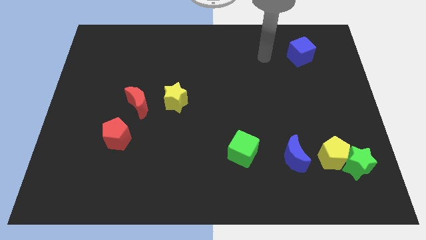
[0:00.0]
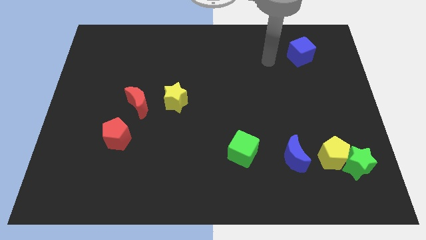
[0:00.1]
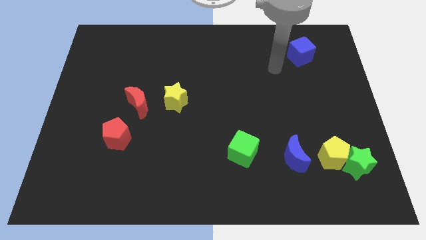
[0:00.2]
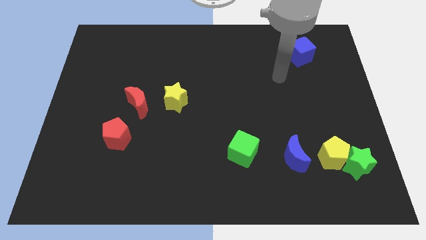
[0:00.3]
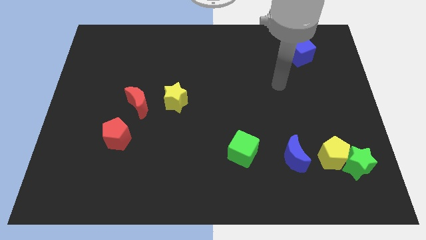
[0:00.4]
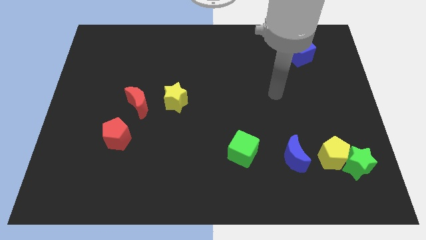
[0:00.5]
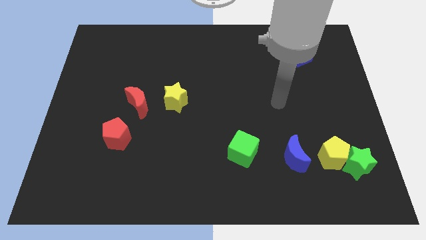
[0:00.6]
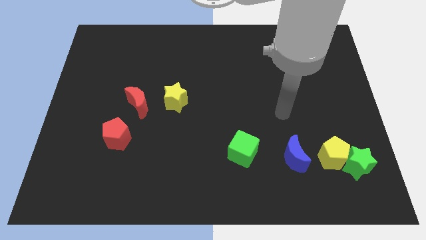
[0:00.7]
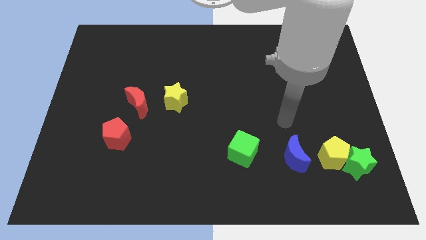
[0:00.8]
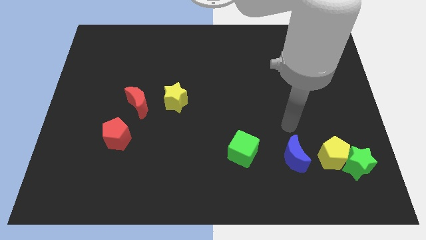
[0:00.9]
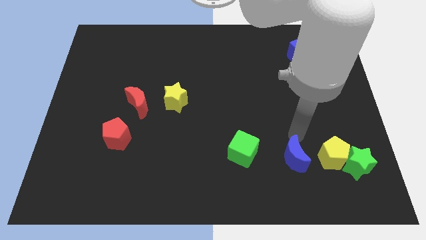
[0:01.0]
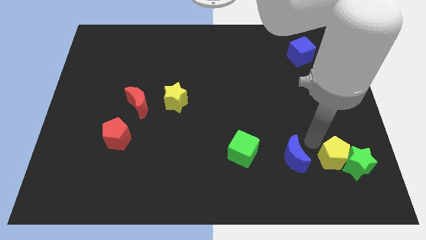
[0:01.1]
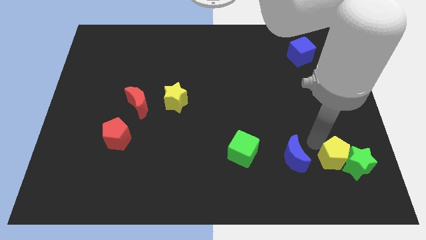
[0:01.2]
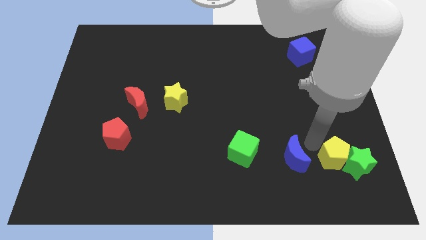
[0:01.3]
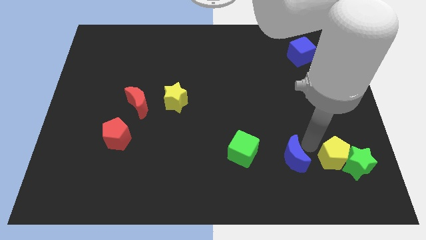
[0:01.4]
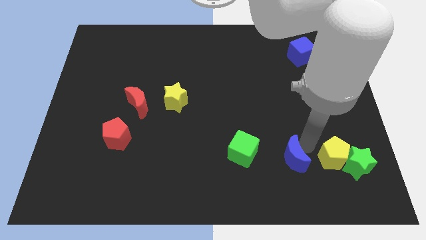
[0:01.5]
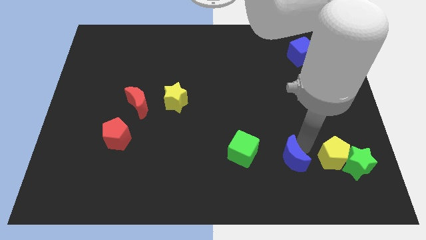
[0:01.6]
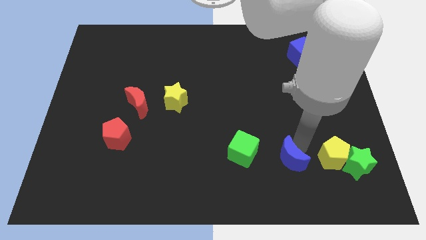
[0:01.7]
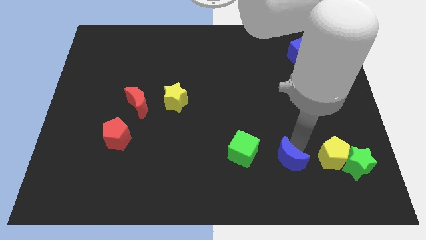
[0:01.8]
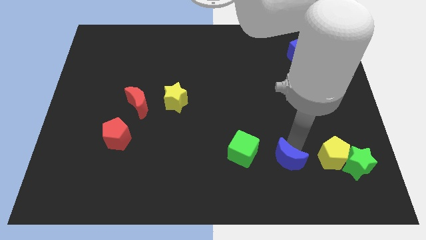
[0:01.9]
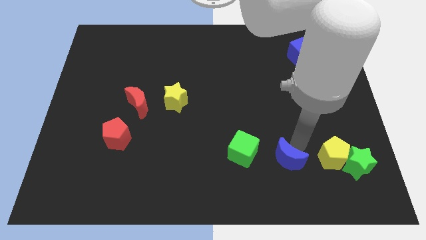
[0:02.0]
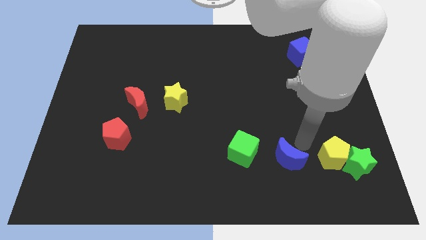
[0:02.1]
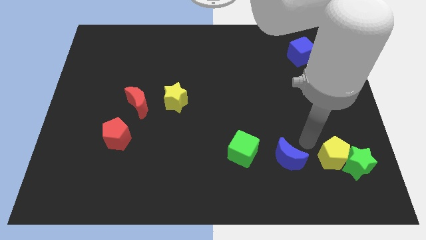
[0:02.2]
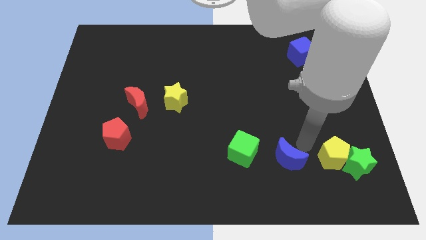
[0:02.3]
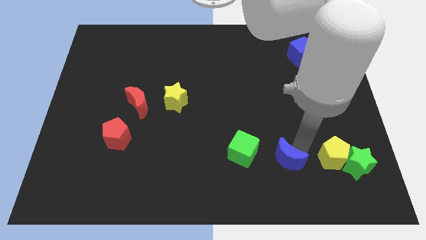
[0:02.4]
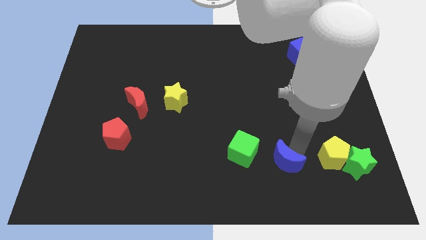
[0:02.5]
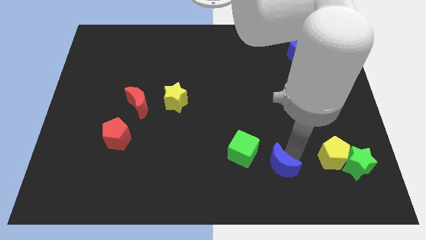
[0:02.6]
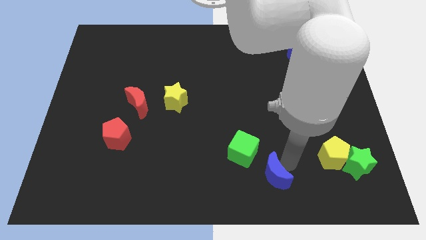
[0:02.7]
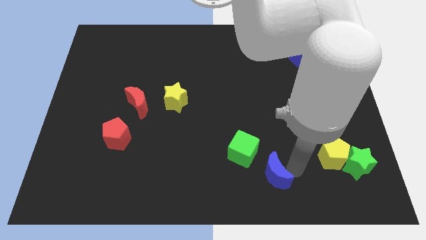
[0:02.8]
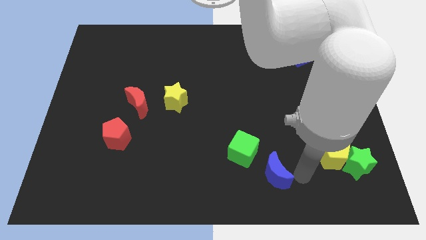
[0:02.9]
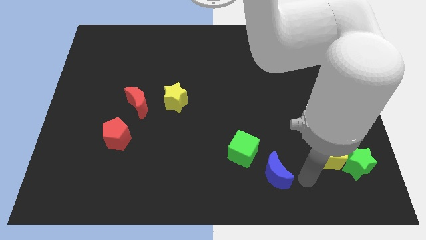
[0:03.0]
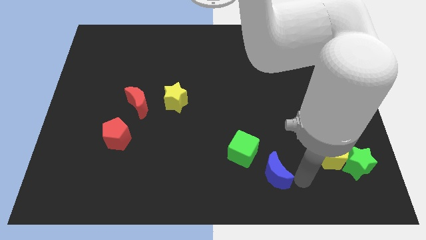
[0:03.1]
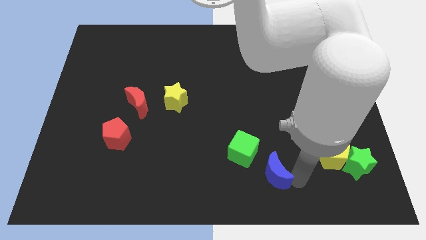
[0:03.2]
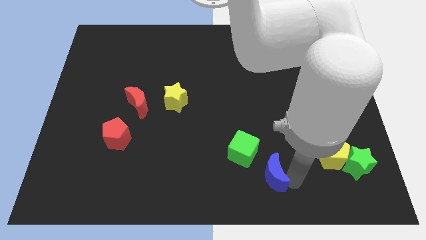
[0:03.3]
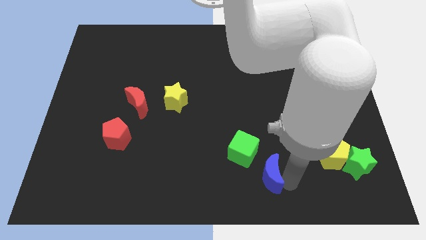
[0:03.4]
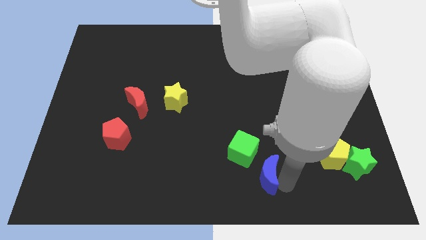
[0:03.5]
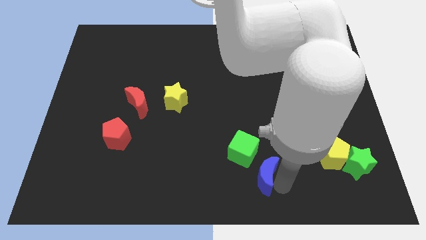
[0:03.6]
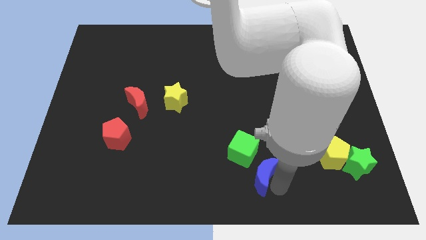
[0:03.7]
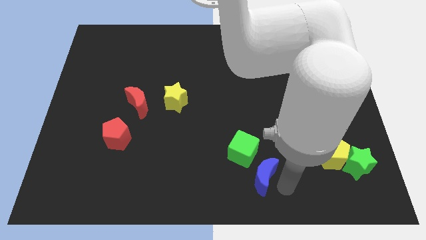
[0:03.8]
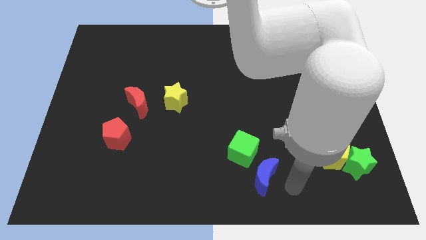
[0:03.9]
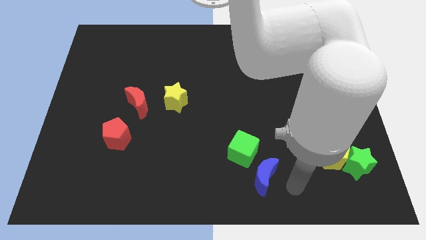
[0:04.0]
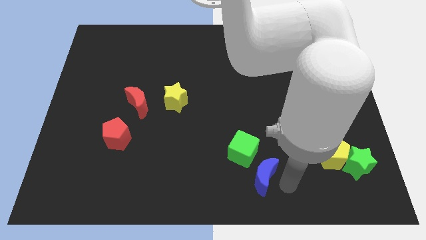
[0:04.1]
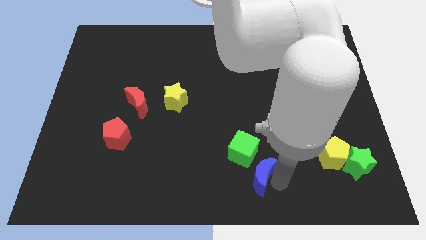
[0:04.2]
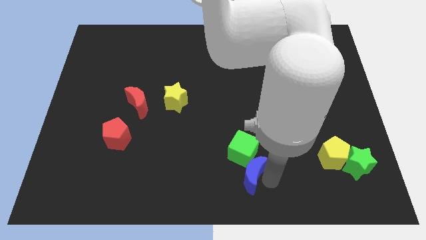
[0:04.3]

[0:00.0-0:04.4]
move the blue moon left somewhat

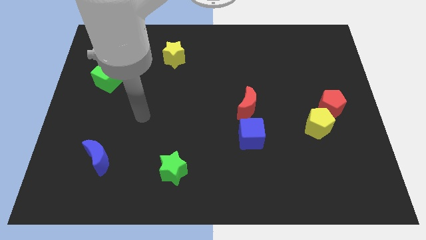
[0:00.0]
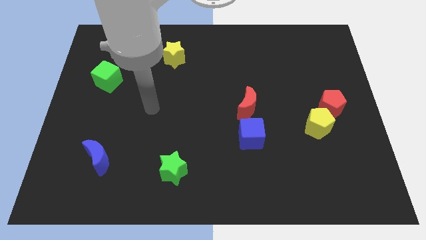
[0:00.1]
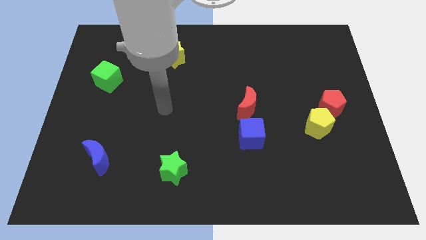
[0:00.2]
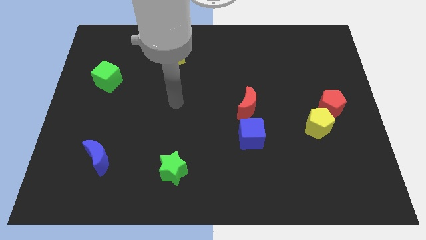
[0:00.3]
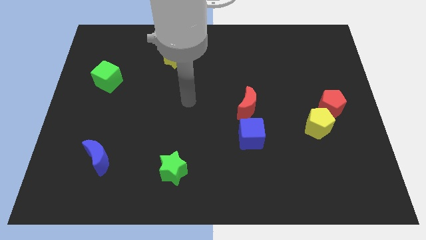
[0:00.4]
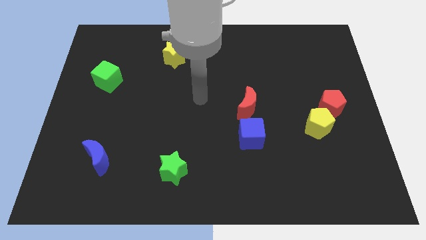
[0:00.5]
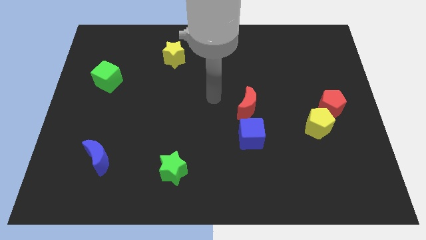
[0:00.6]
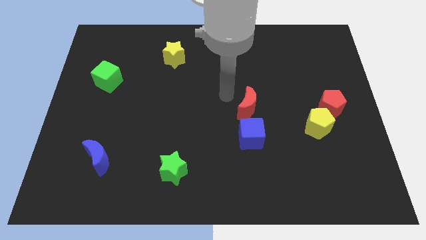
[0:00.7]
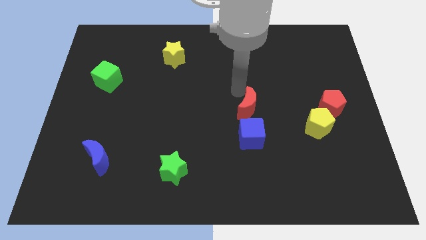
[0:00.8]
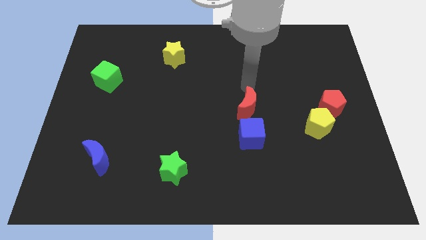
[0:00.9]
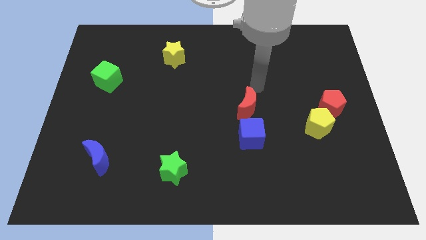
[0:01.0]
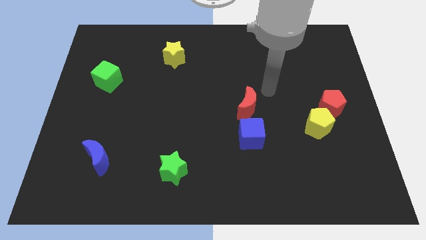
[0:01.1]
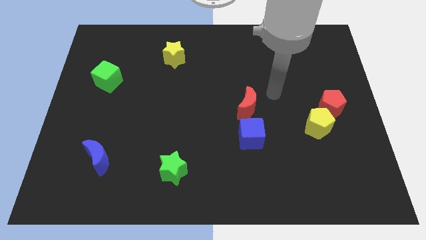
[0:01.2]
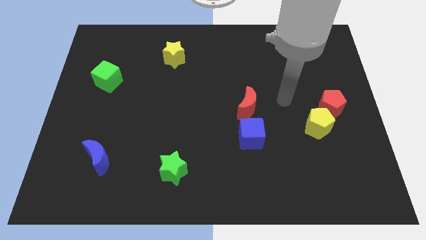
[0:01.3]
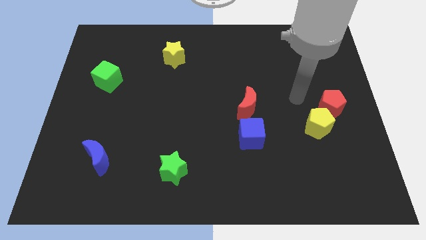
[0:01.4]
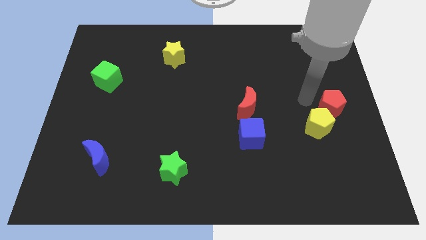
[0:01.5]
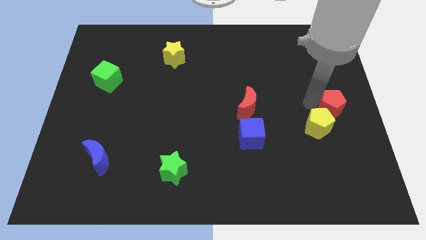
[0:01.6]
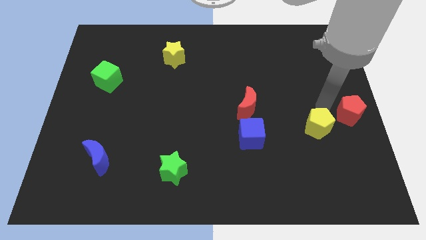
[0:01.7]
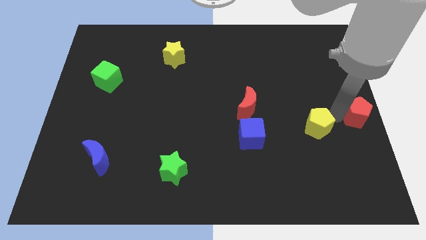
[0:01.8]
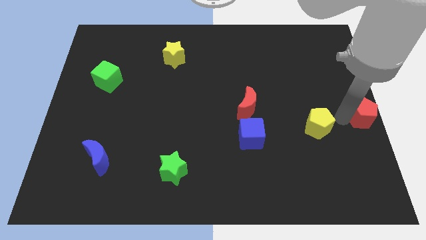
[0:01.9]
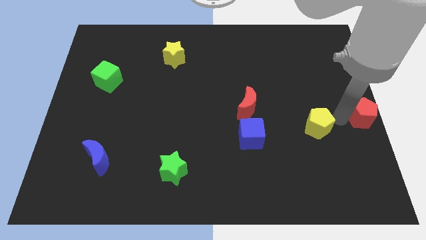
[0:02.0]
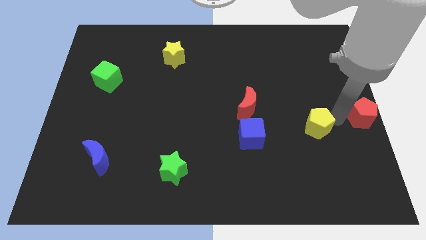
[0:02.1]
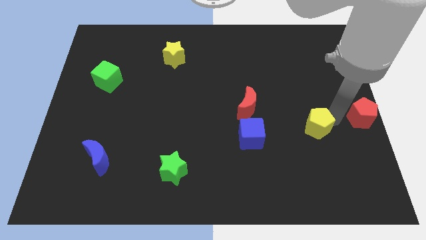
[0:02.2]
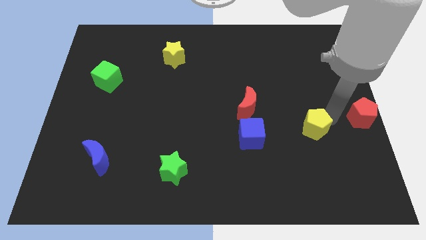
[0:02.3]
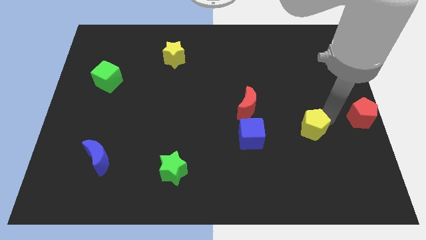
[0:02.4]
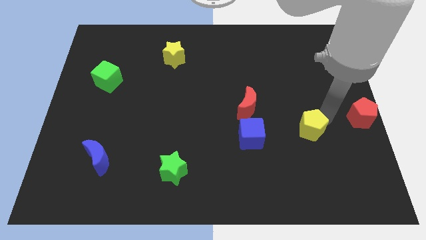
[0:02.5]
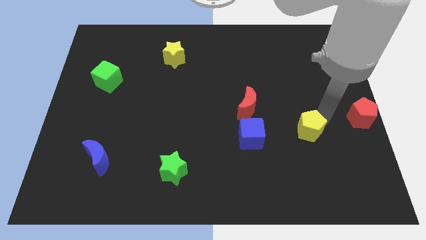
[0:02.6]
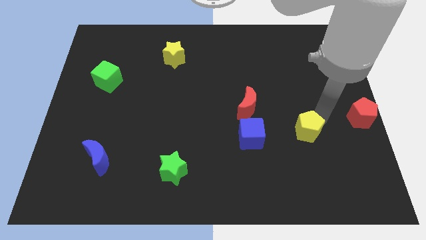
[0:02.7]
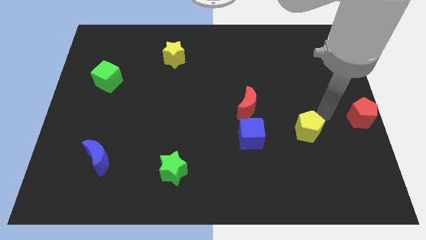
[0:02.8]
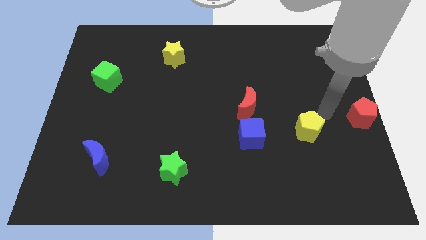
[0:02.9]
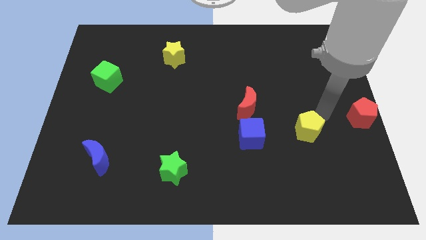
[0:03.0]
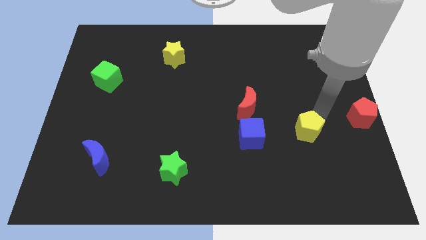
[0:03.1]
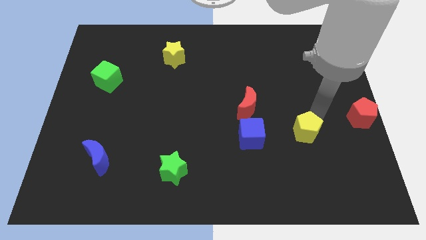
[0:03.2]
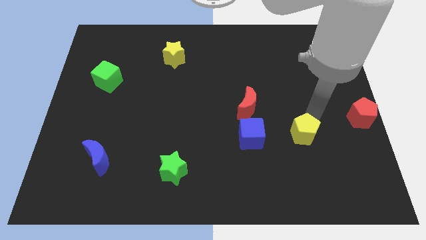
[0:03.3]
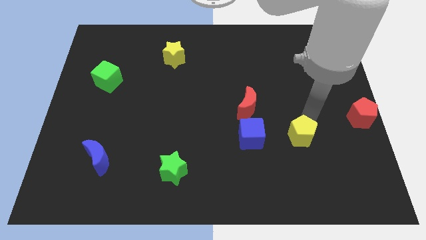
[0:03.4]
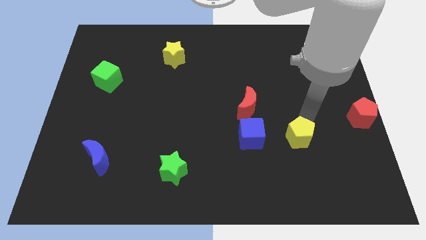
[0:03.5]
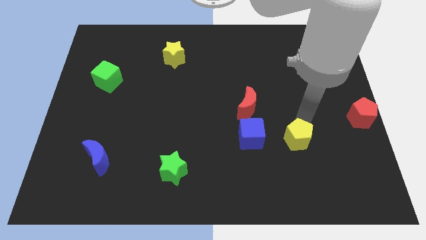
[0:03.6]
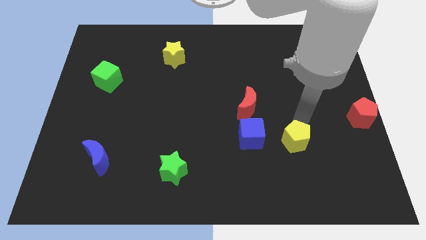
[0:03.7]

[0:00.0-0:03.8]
move the yellow pentagon a little diagonally down and to the left
